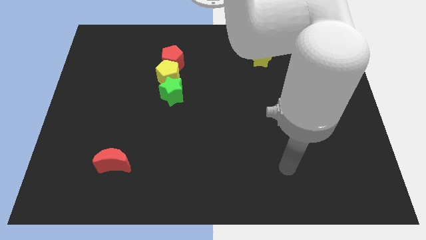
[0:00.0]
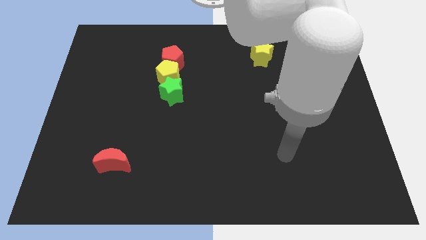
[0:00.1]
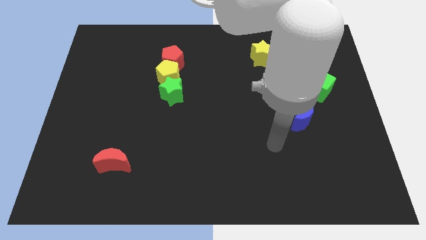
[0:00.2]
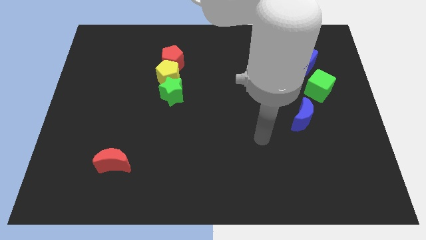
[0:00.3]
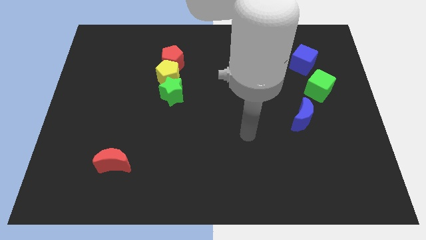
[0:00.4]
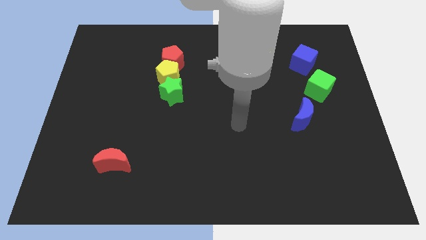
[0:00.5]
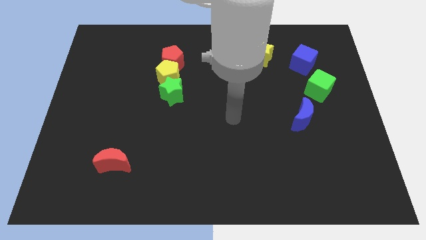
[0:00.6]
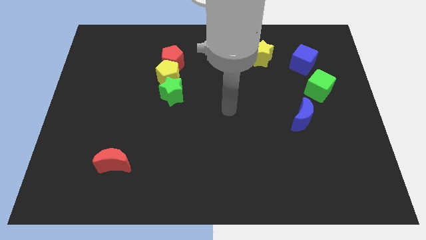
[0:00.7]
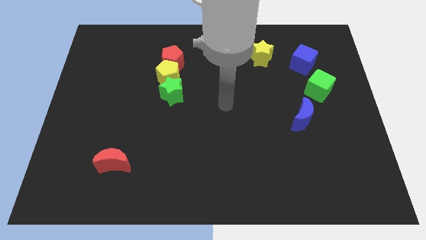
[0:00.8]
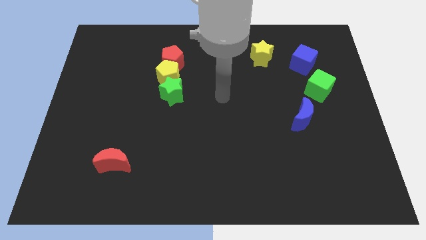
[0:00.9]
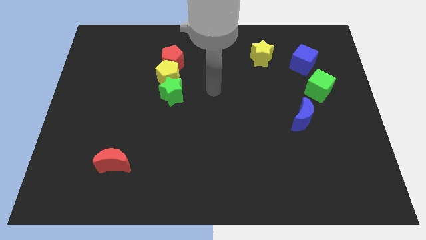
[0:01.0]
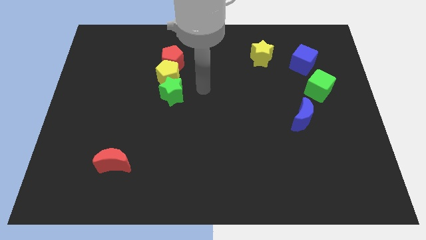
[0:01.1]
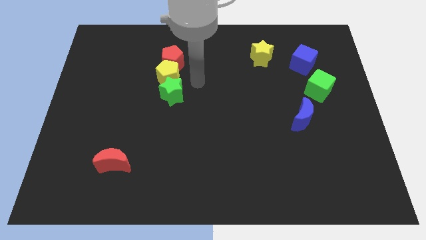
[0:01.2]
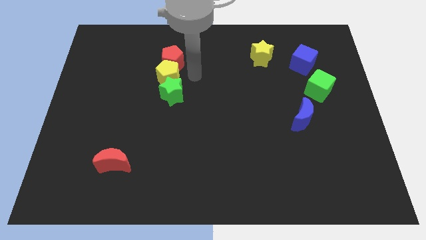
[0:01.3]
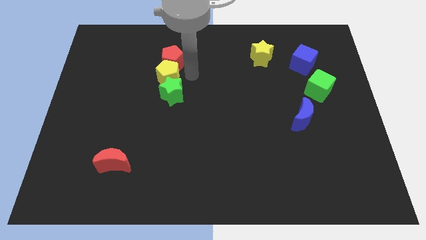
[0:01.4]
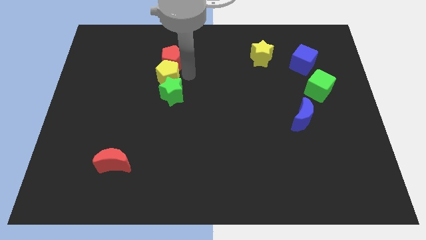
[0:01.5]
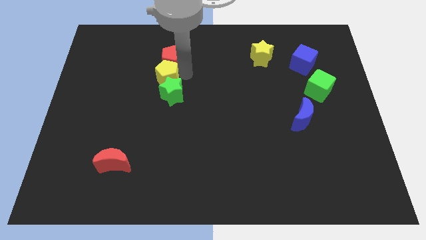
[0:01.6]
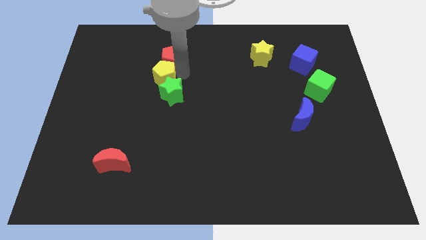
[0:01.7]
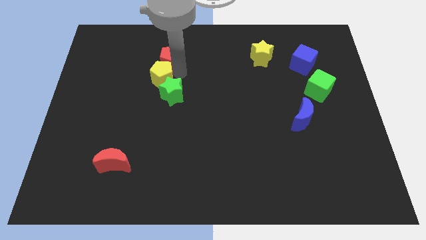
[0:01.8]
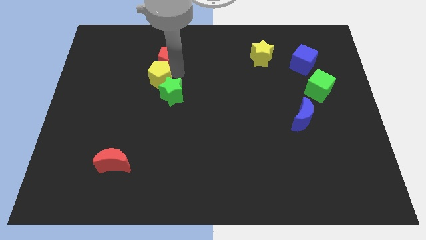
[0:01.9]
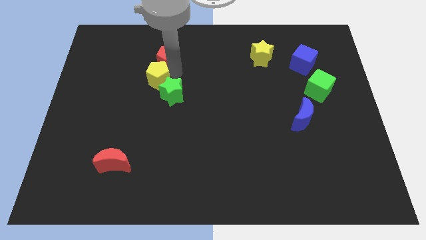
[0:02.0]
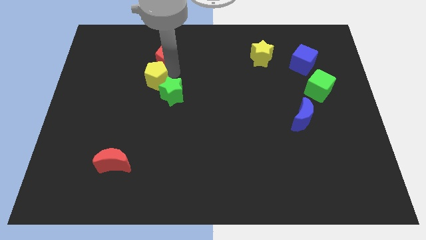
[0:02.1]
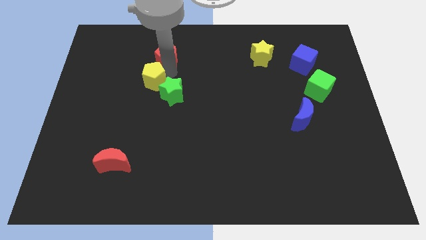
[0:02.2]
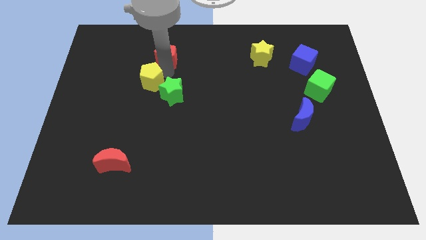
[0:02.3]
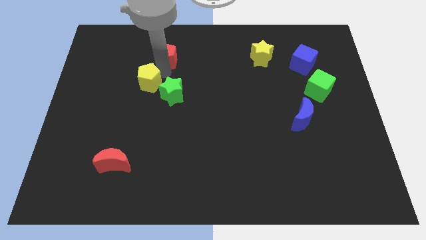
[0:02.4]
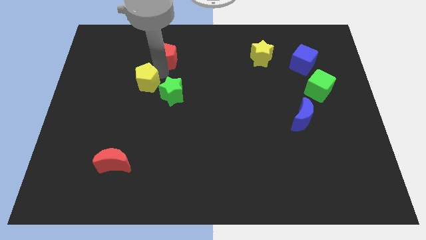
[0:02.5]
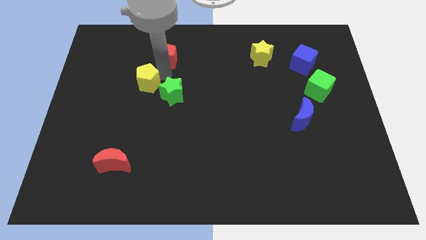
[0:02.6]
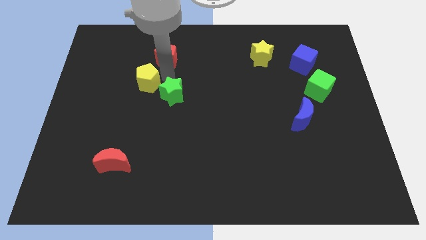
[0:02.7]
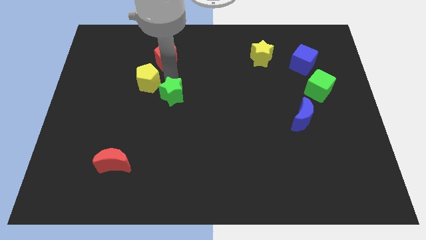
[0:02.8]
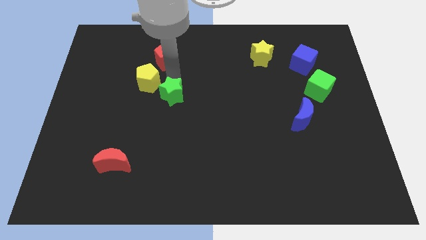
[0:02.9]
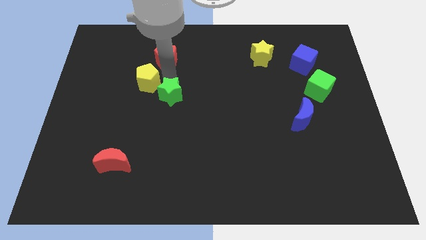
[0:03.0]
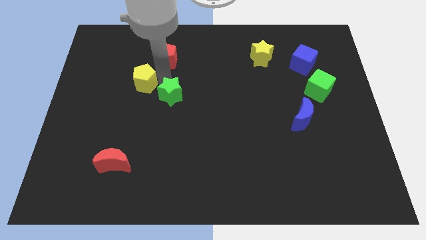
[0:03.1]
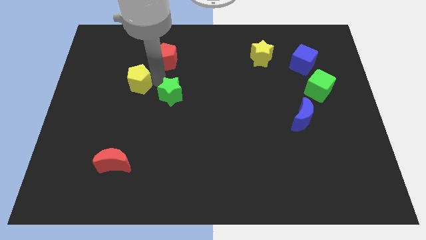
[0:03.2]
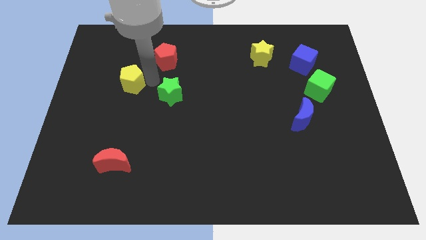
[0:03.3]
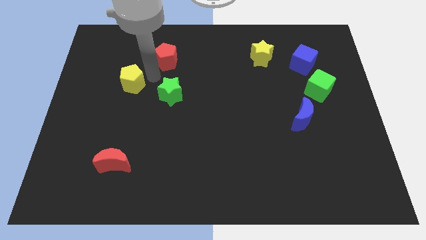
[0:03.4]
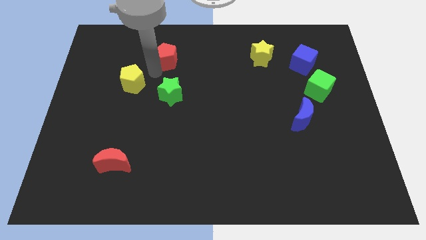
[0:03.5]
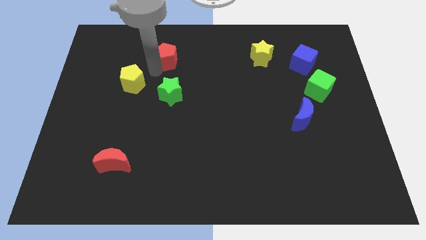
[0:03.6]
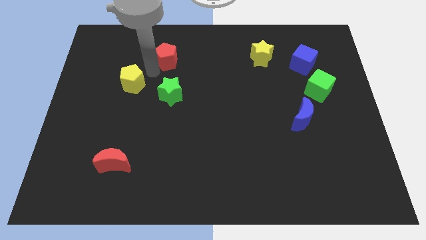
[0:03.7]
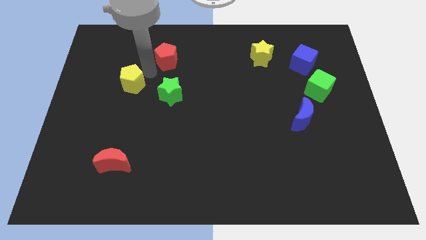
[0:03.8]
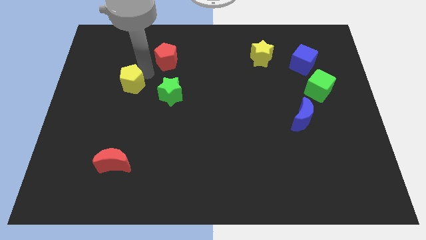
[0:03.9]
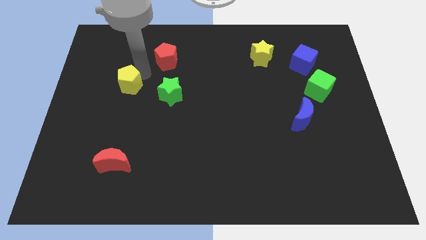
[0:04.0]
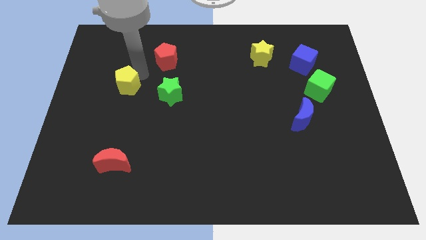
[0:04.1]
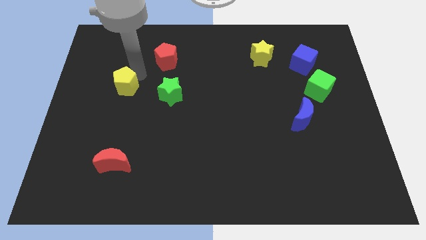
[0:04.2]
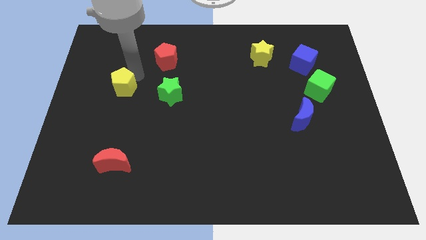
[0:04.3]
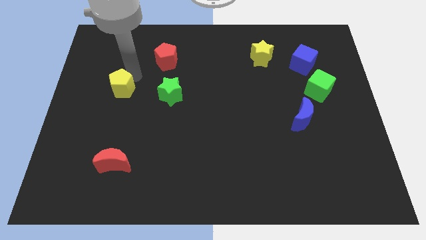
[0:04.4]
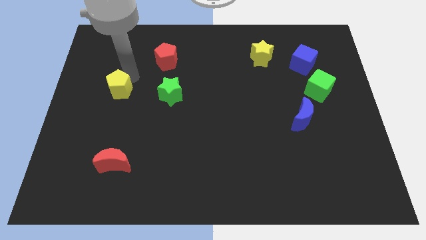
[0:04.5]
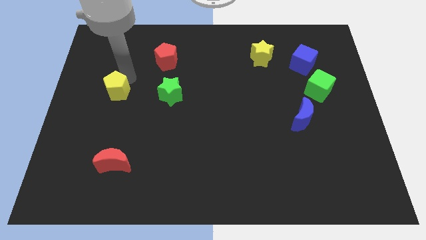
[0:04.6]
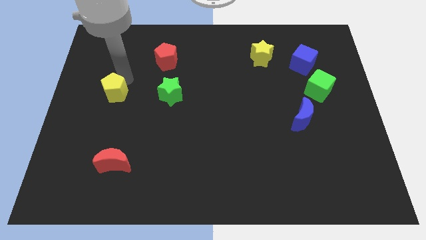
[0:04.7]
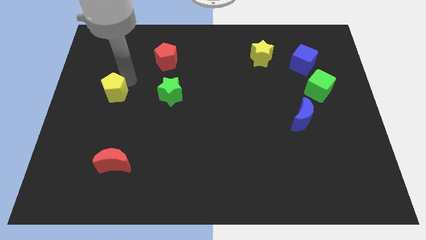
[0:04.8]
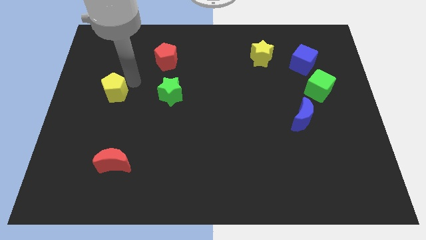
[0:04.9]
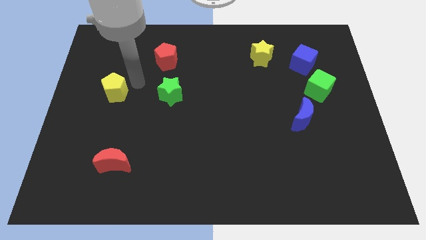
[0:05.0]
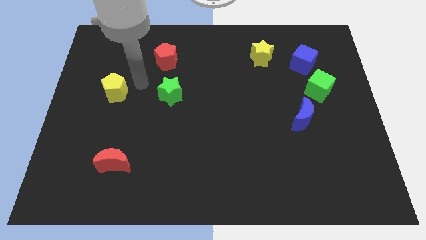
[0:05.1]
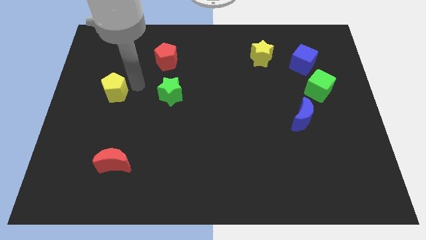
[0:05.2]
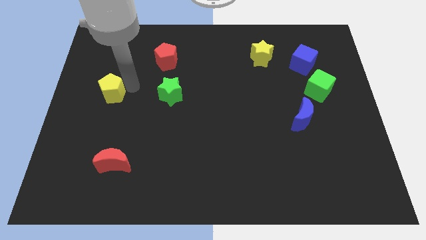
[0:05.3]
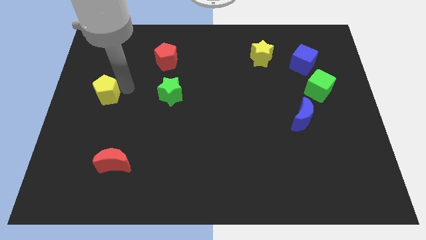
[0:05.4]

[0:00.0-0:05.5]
put the yellow pentagon to the center left

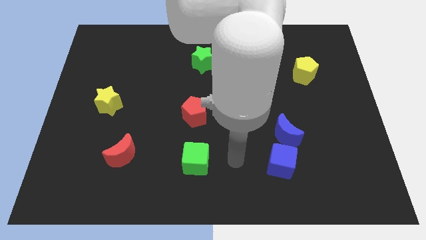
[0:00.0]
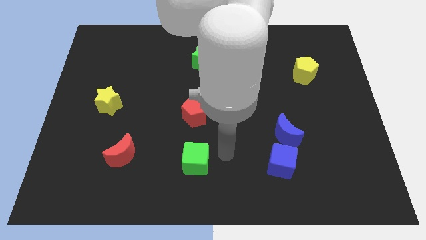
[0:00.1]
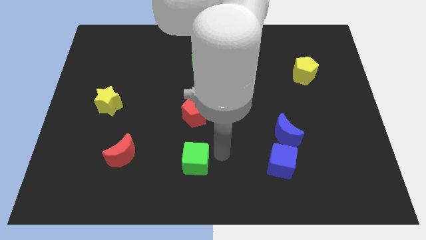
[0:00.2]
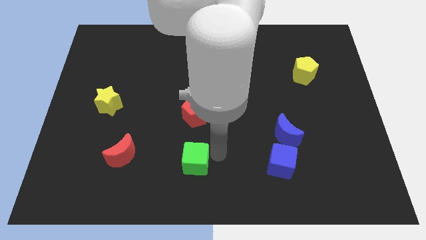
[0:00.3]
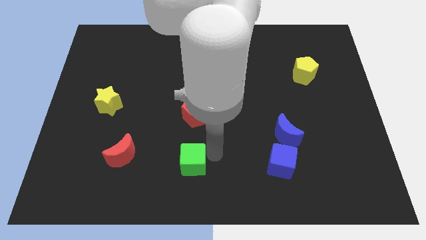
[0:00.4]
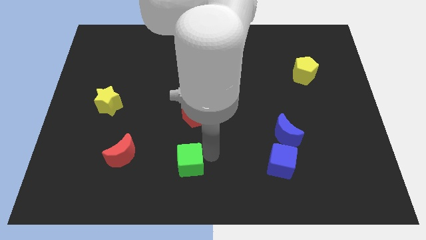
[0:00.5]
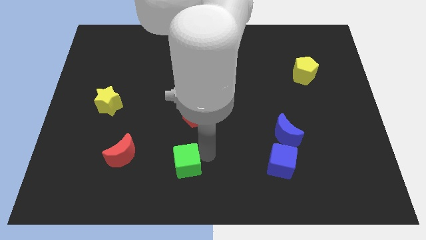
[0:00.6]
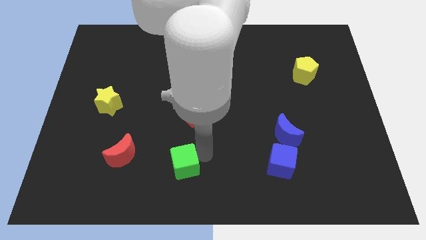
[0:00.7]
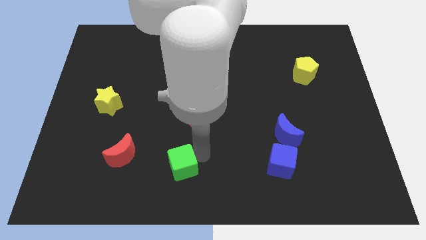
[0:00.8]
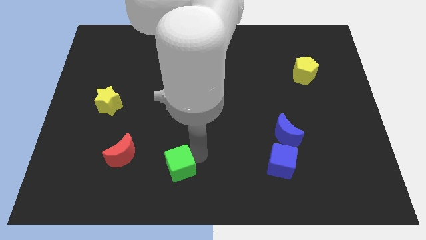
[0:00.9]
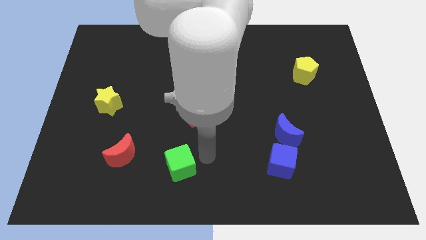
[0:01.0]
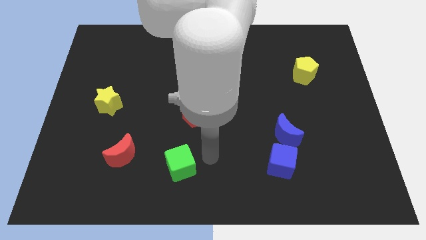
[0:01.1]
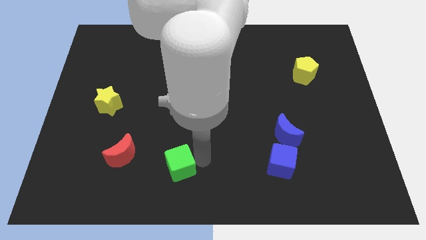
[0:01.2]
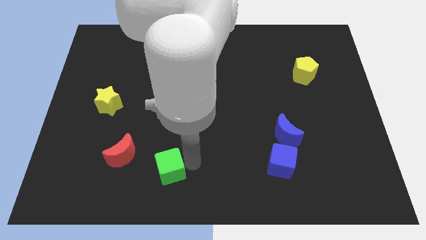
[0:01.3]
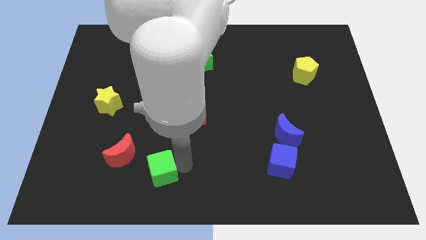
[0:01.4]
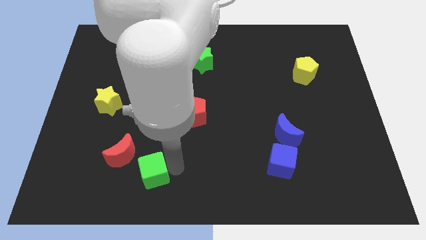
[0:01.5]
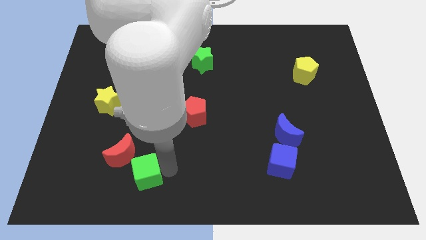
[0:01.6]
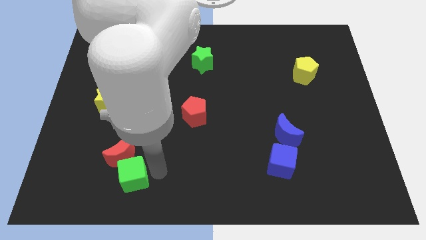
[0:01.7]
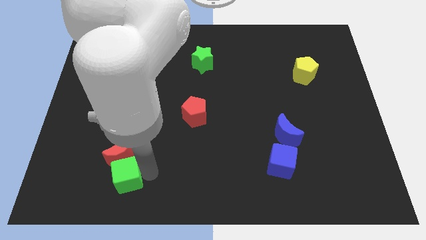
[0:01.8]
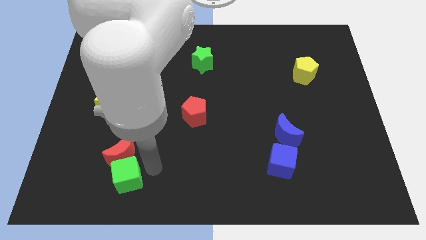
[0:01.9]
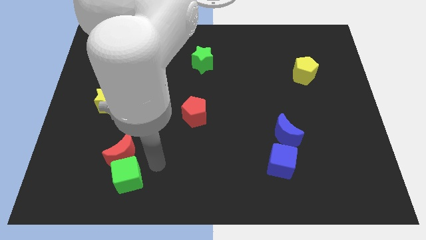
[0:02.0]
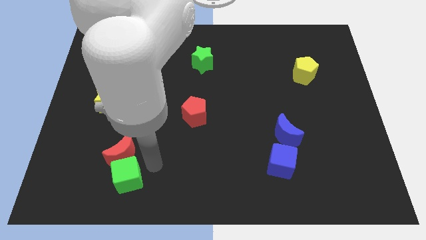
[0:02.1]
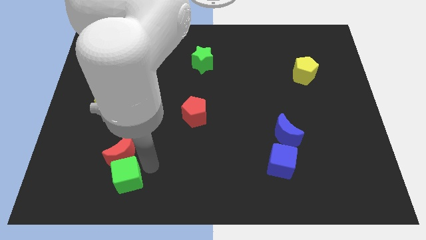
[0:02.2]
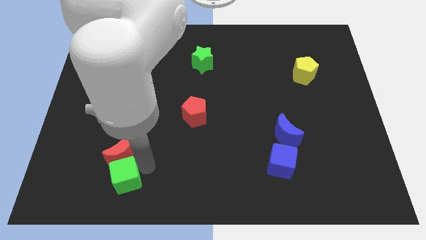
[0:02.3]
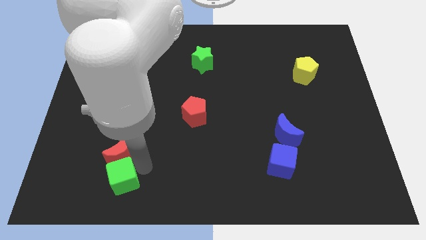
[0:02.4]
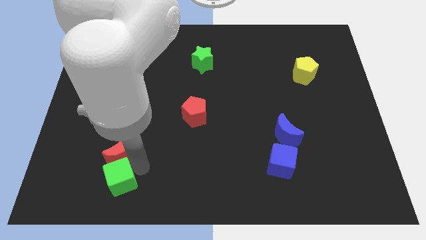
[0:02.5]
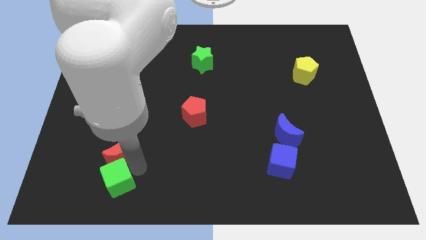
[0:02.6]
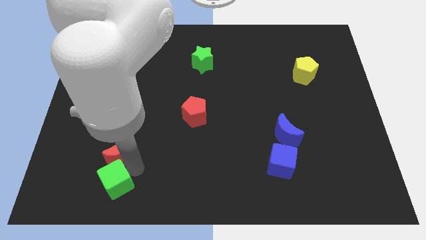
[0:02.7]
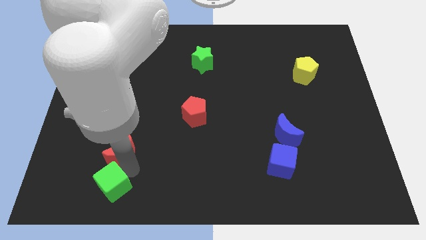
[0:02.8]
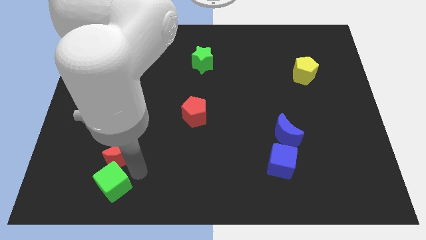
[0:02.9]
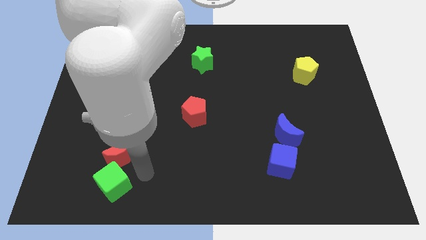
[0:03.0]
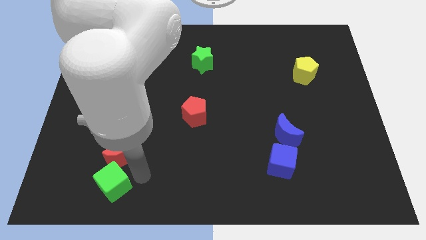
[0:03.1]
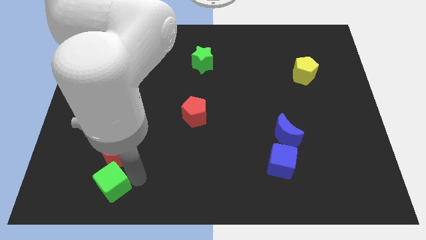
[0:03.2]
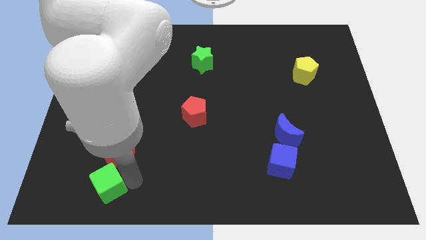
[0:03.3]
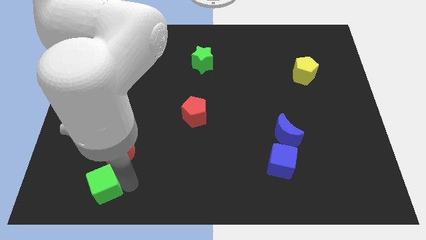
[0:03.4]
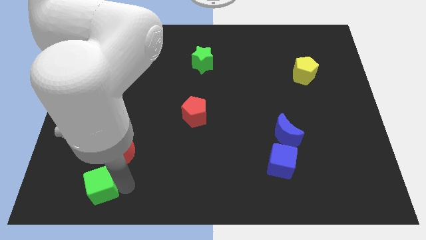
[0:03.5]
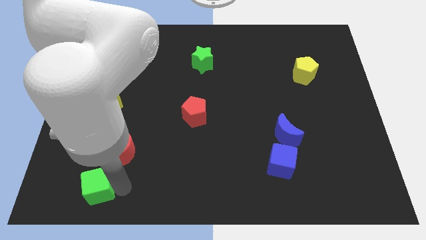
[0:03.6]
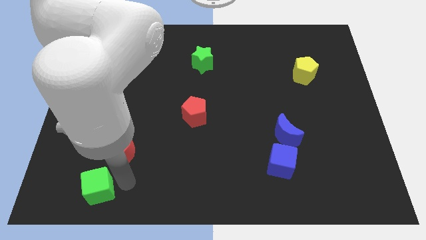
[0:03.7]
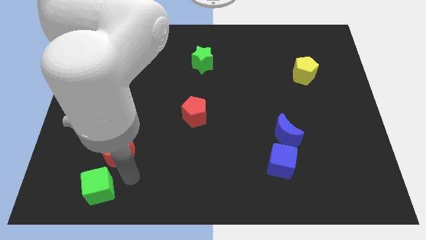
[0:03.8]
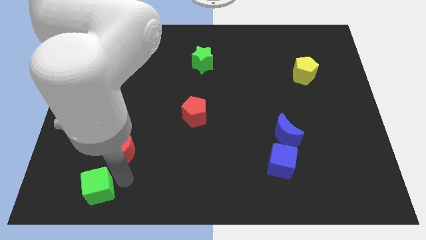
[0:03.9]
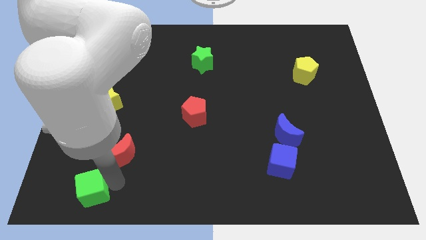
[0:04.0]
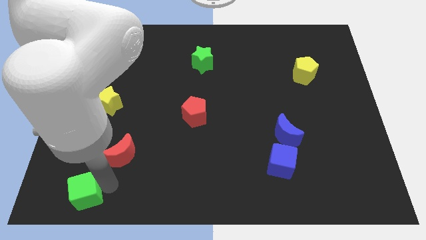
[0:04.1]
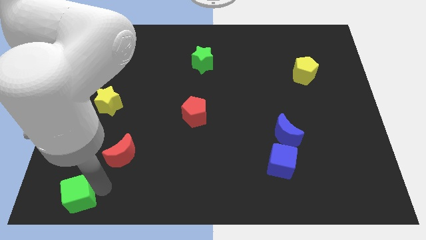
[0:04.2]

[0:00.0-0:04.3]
push the green cube to the bottom left of the board
